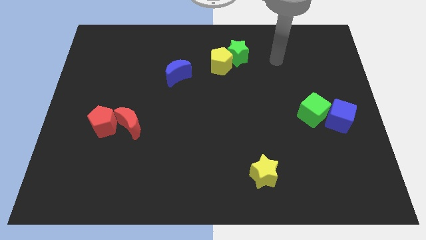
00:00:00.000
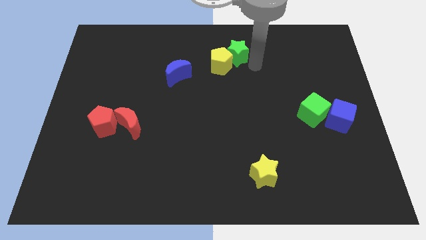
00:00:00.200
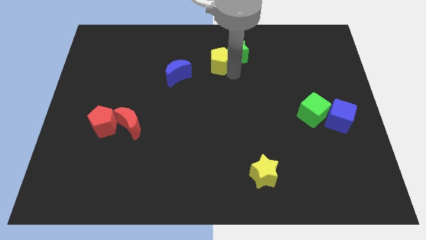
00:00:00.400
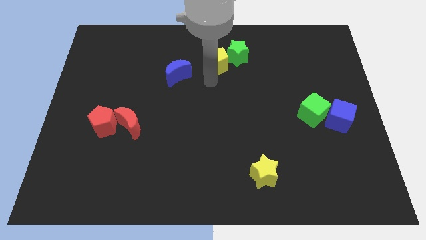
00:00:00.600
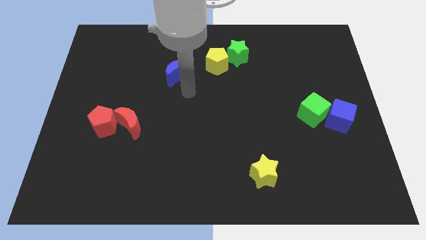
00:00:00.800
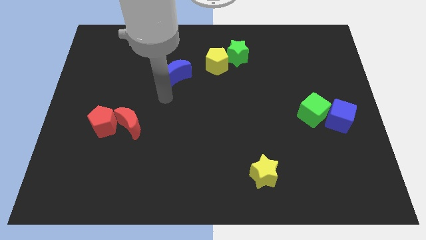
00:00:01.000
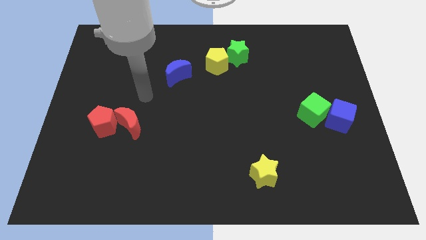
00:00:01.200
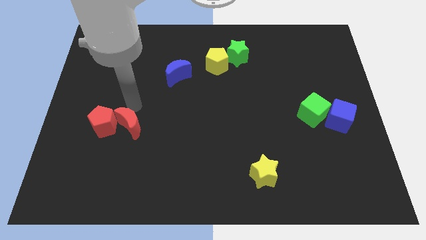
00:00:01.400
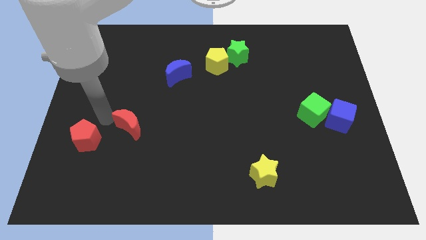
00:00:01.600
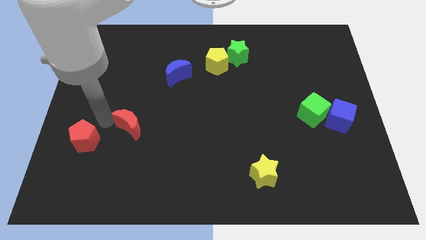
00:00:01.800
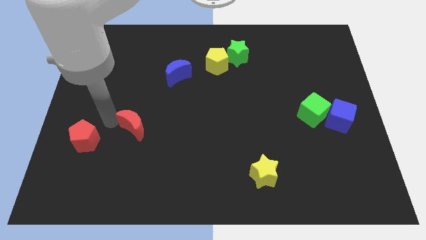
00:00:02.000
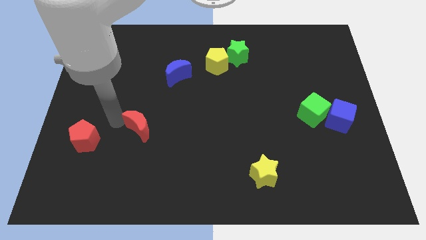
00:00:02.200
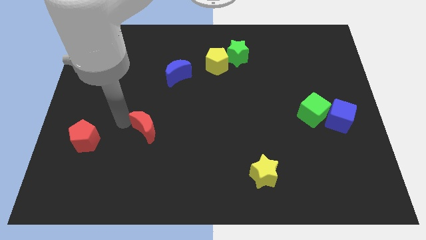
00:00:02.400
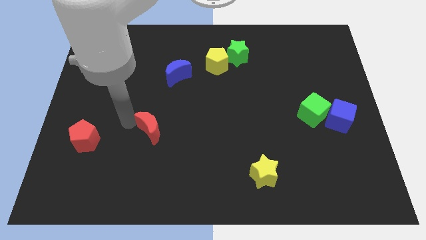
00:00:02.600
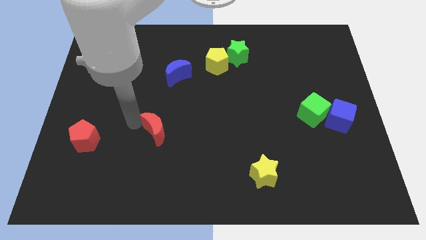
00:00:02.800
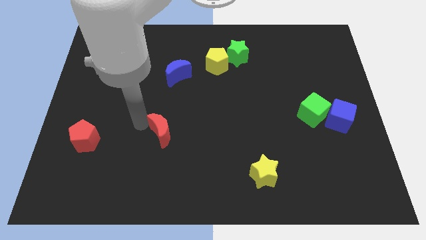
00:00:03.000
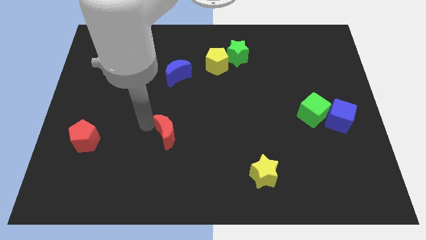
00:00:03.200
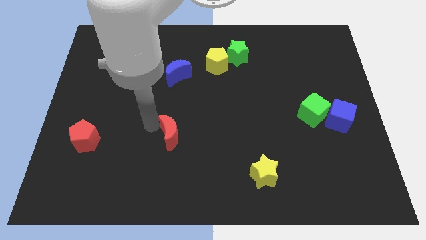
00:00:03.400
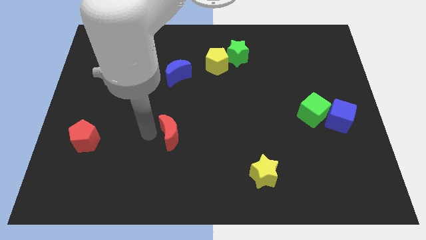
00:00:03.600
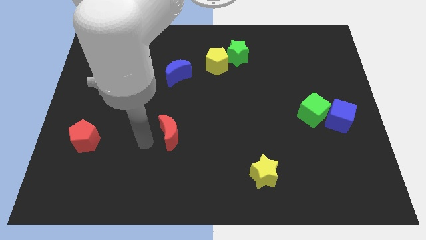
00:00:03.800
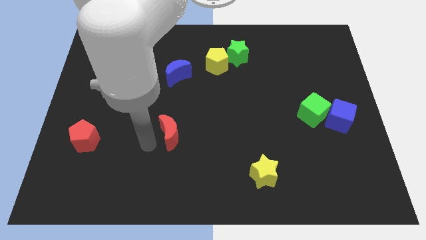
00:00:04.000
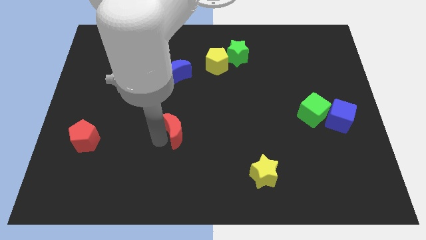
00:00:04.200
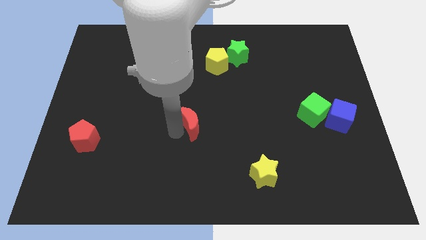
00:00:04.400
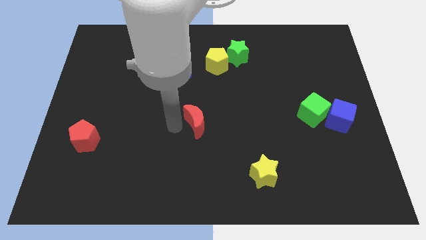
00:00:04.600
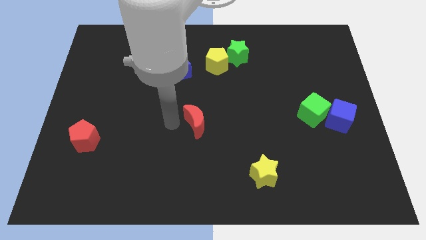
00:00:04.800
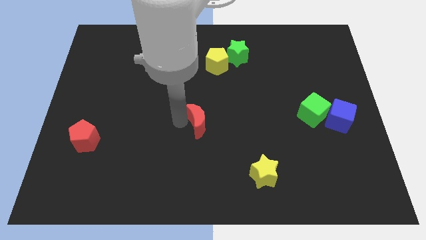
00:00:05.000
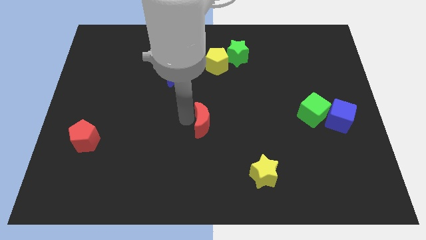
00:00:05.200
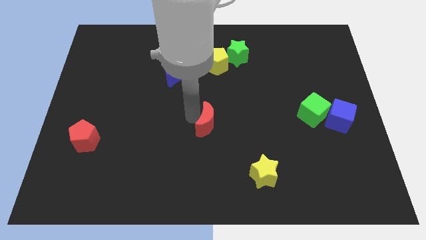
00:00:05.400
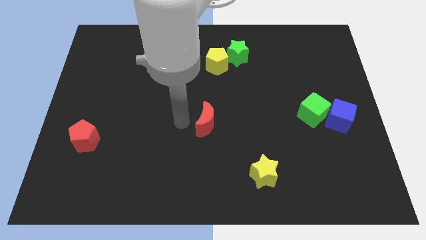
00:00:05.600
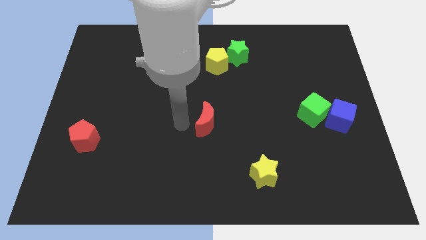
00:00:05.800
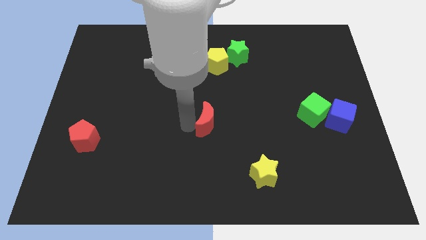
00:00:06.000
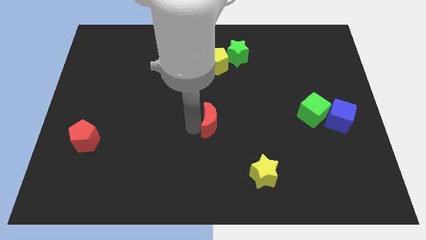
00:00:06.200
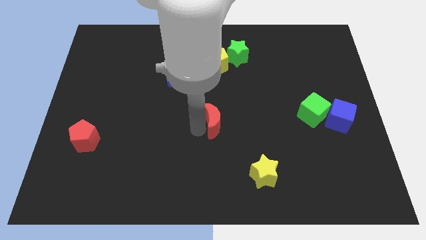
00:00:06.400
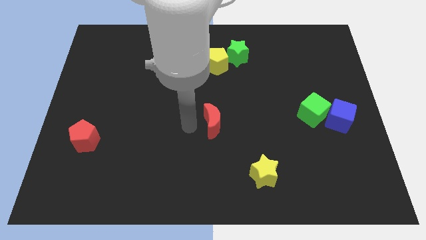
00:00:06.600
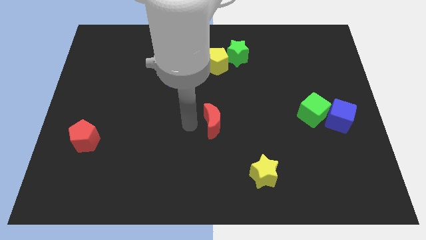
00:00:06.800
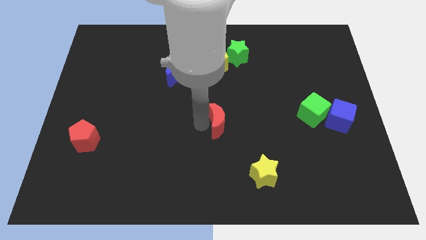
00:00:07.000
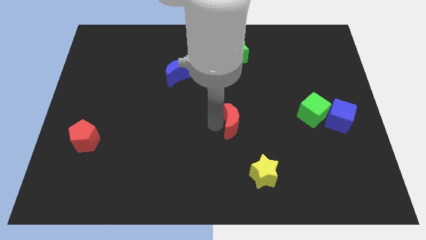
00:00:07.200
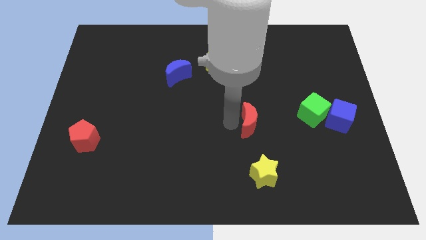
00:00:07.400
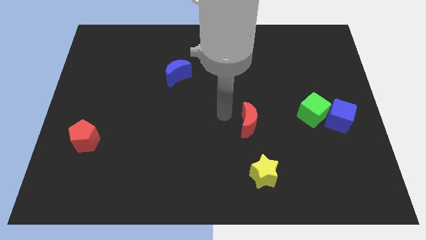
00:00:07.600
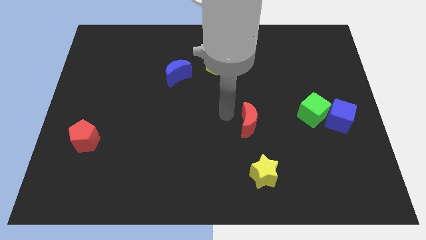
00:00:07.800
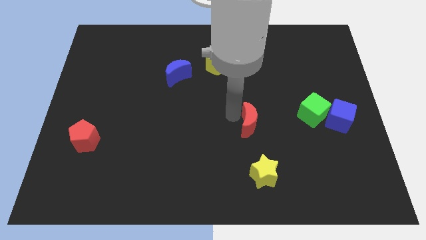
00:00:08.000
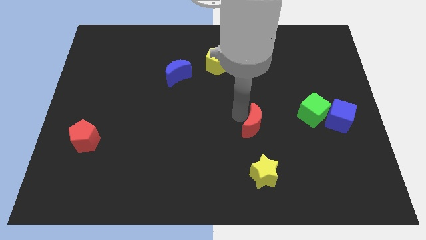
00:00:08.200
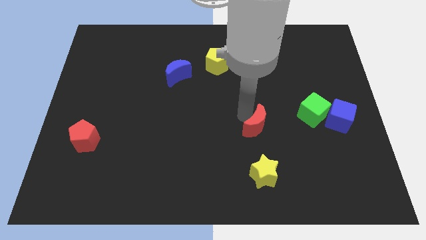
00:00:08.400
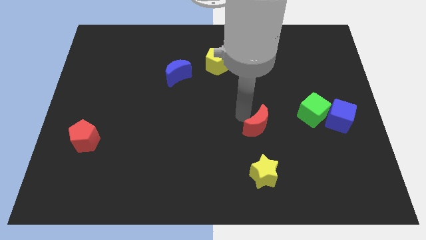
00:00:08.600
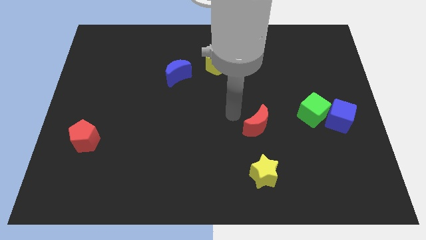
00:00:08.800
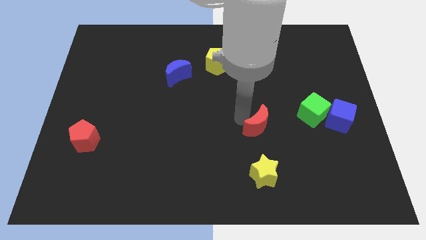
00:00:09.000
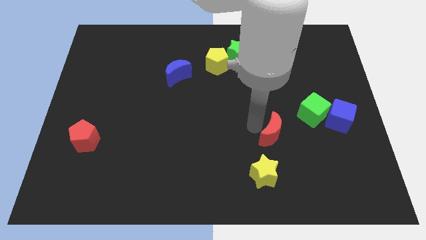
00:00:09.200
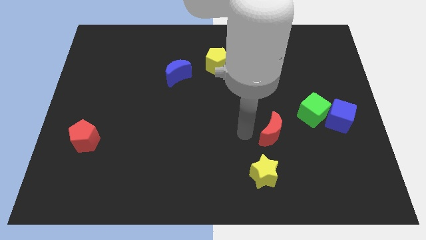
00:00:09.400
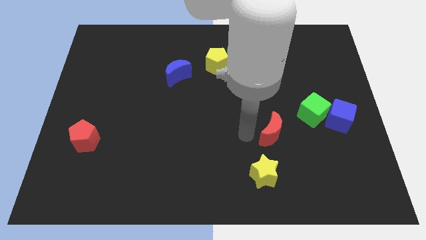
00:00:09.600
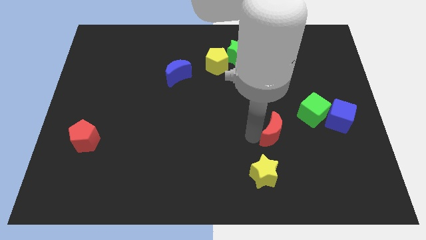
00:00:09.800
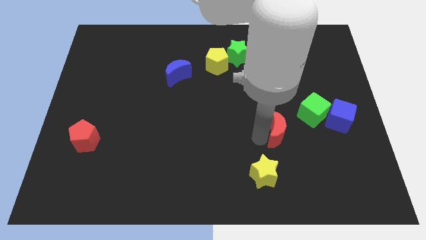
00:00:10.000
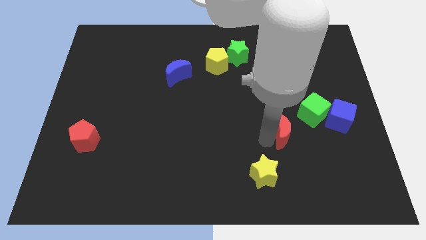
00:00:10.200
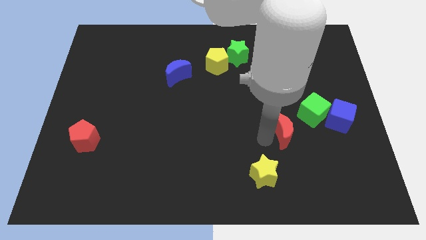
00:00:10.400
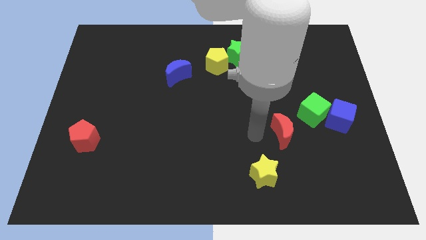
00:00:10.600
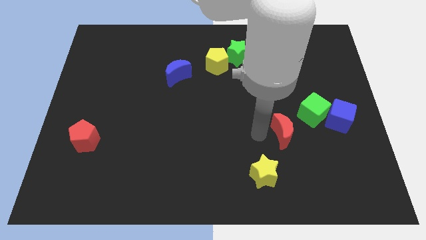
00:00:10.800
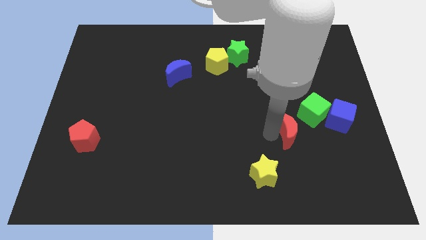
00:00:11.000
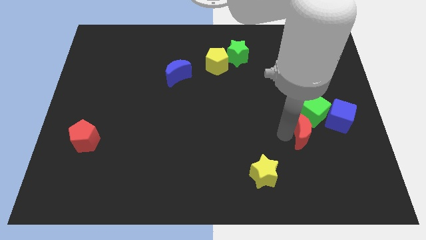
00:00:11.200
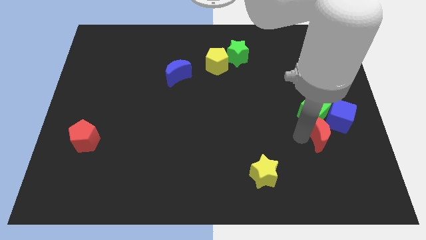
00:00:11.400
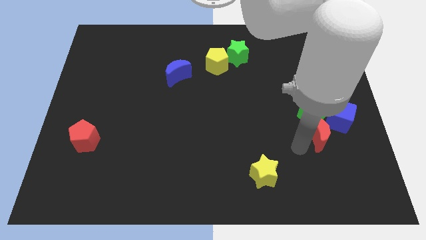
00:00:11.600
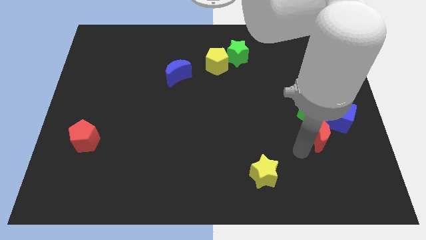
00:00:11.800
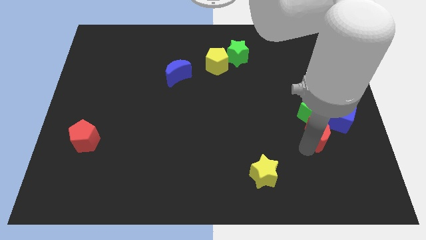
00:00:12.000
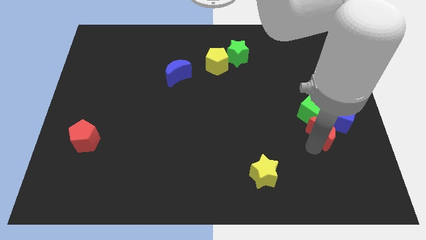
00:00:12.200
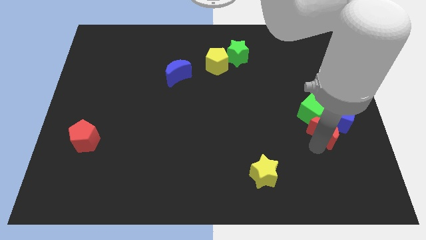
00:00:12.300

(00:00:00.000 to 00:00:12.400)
slide the red moon to the blue cube
